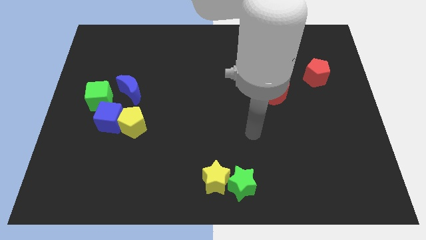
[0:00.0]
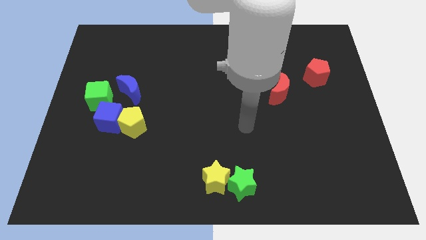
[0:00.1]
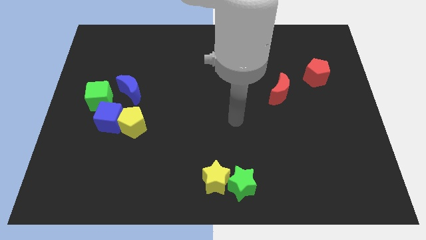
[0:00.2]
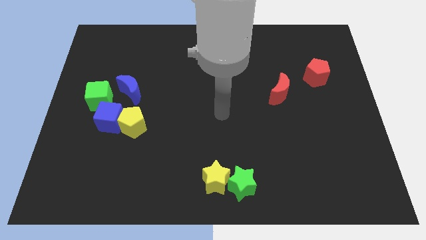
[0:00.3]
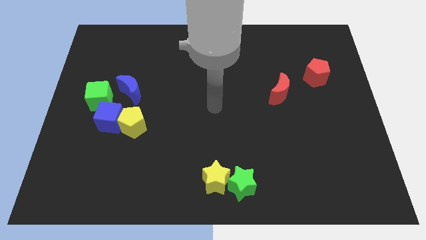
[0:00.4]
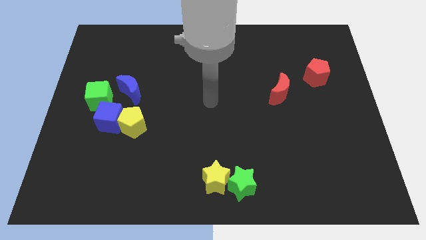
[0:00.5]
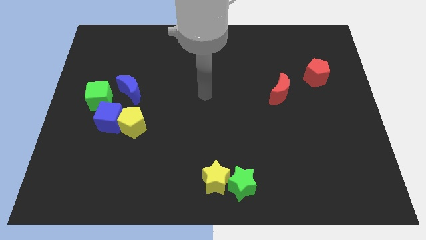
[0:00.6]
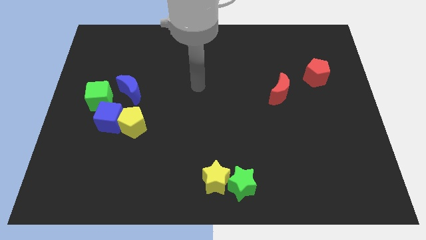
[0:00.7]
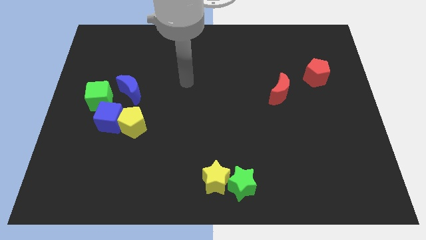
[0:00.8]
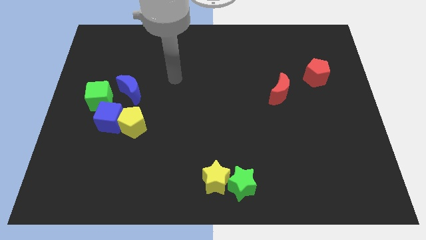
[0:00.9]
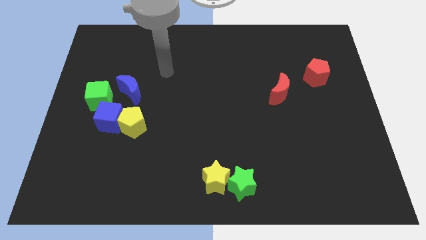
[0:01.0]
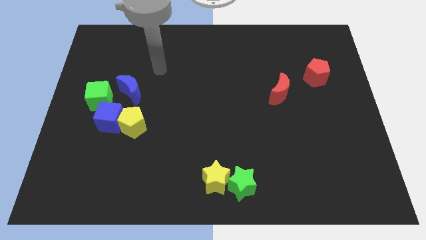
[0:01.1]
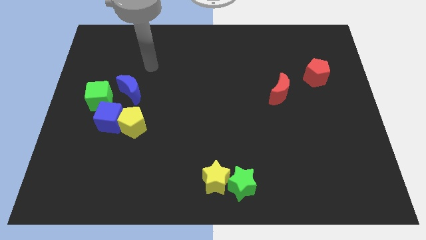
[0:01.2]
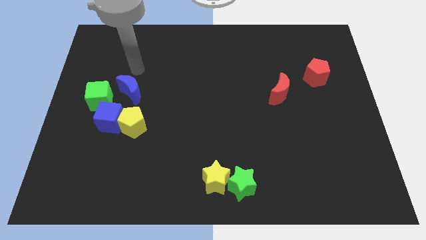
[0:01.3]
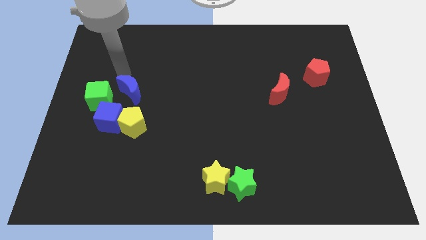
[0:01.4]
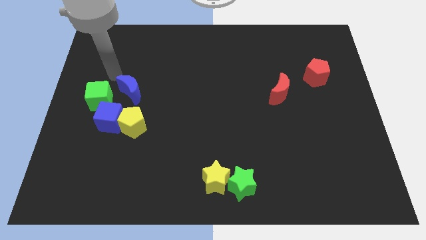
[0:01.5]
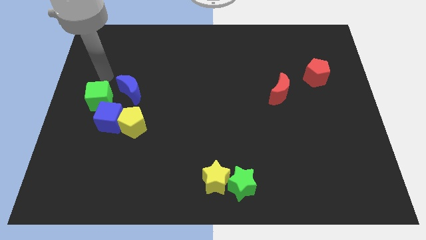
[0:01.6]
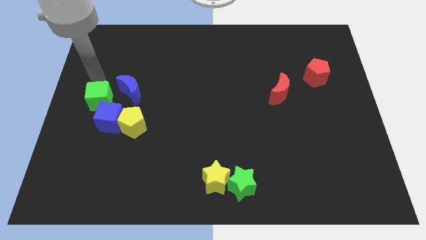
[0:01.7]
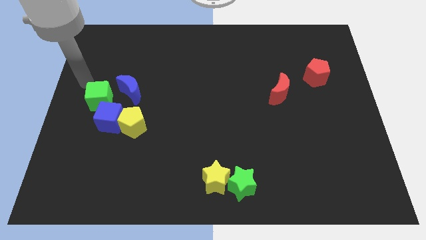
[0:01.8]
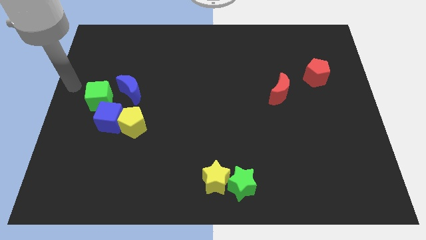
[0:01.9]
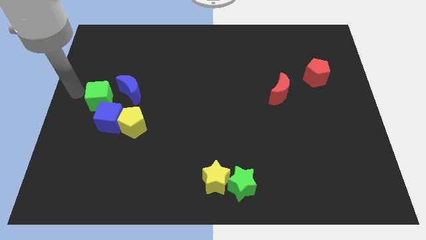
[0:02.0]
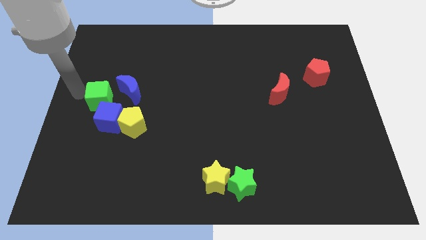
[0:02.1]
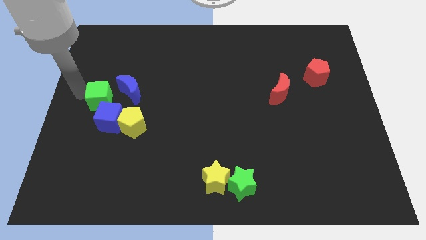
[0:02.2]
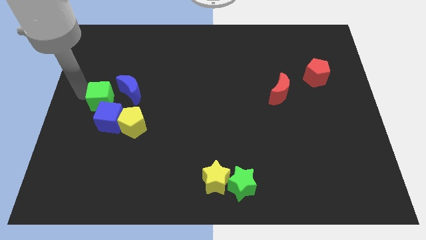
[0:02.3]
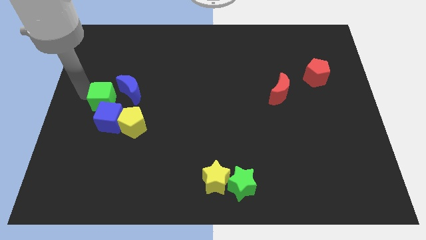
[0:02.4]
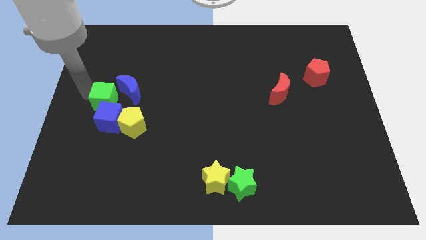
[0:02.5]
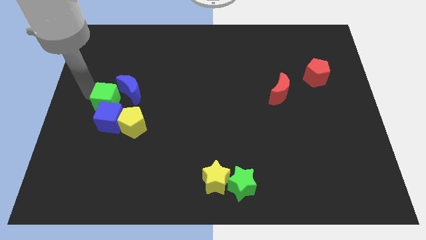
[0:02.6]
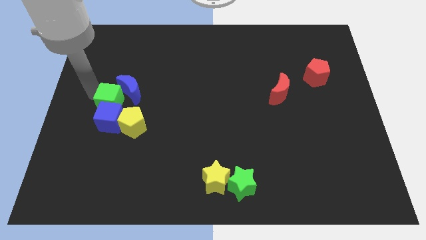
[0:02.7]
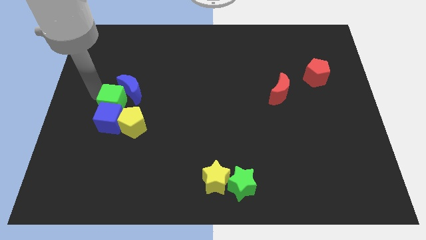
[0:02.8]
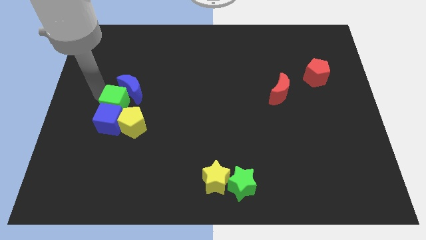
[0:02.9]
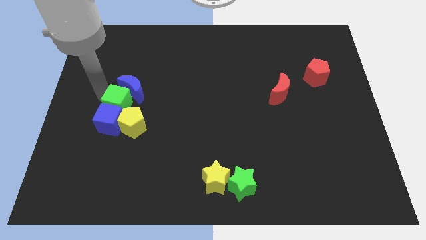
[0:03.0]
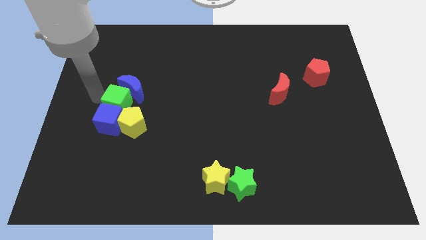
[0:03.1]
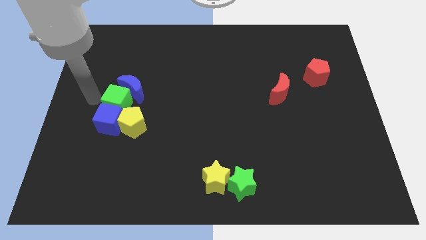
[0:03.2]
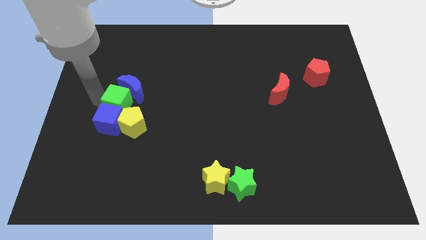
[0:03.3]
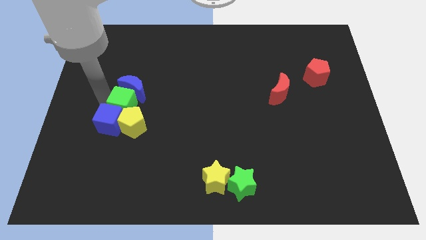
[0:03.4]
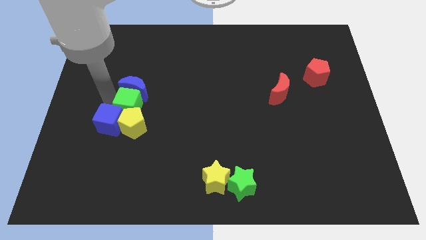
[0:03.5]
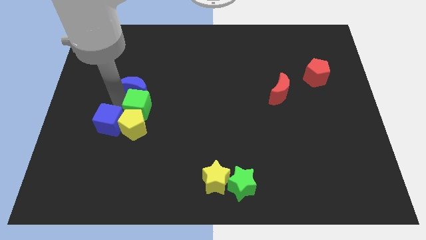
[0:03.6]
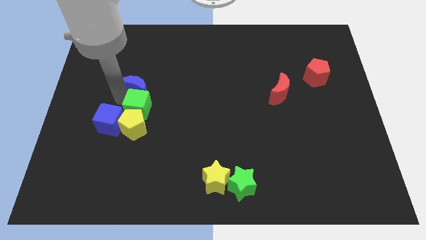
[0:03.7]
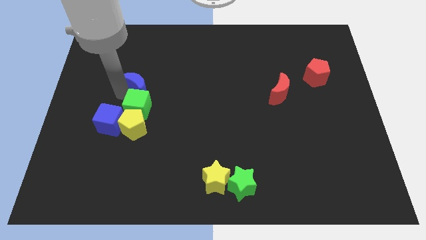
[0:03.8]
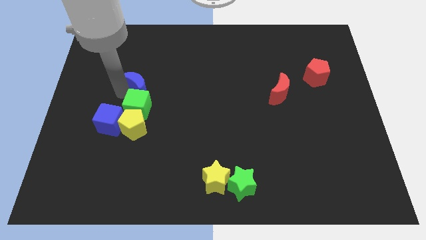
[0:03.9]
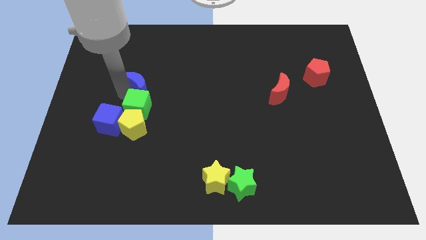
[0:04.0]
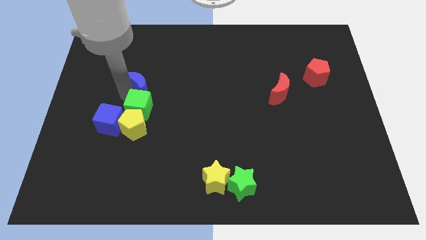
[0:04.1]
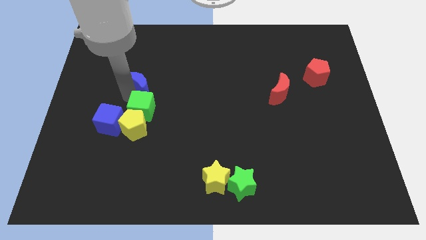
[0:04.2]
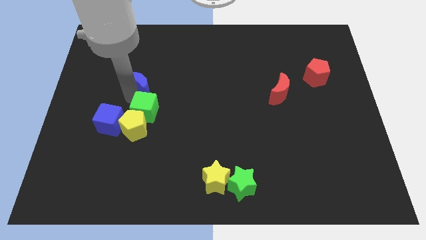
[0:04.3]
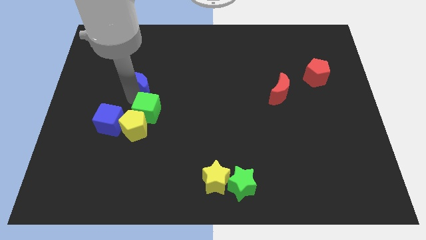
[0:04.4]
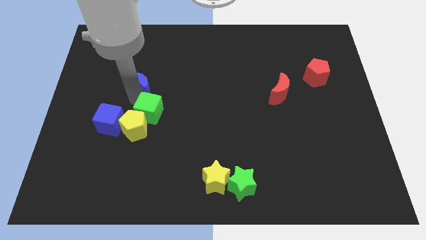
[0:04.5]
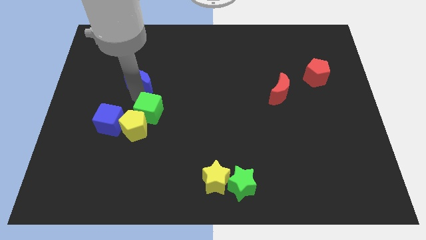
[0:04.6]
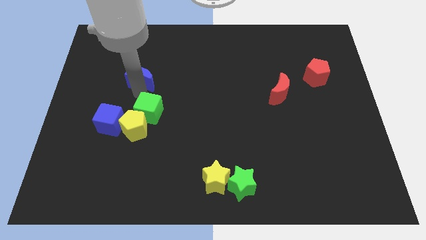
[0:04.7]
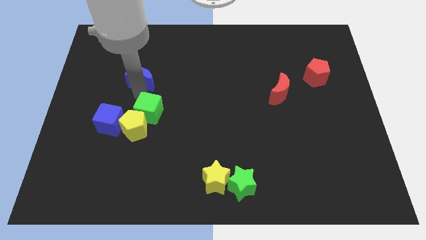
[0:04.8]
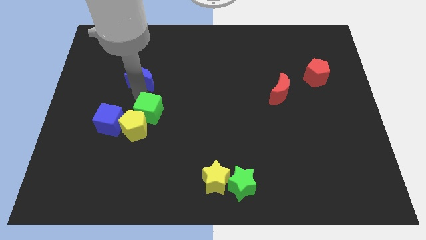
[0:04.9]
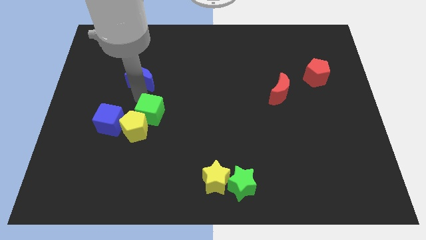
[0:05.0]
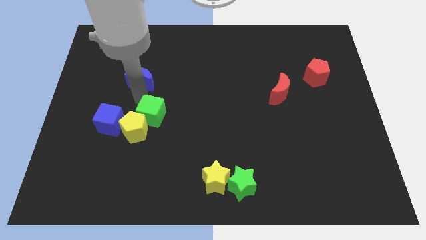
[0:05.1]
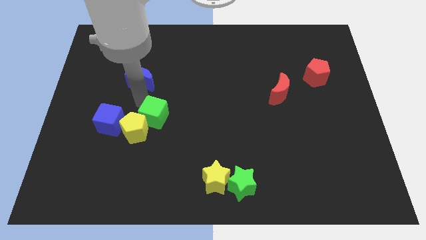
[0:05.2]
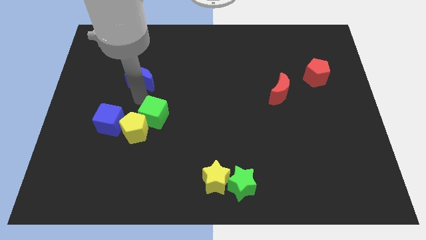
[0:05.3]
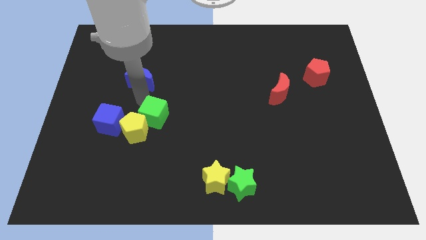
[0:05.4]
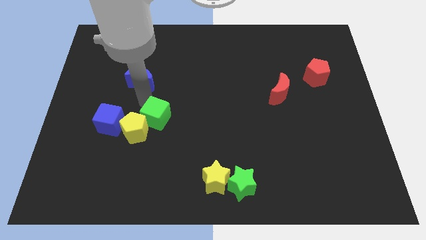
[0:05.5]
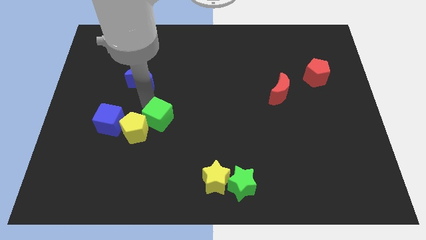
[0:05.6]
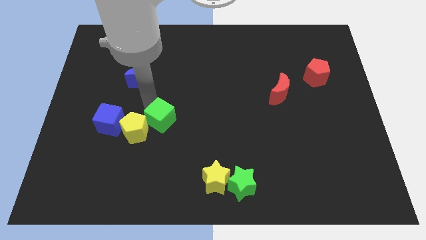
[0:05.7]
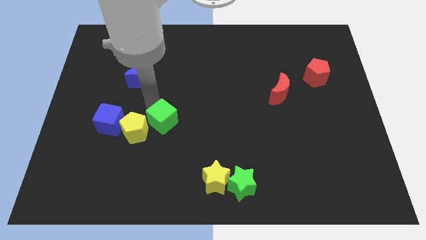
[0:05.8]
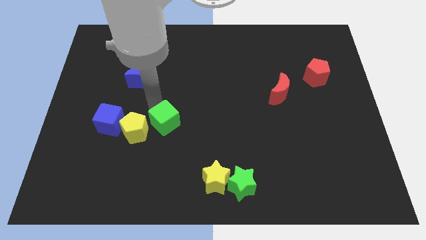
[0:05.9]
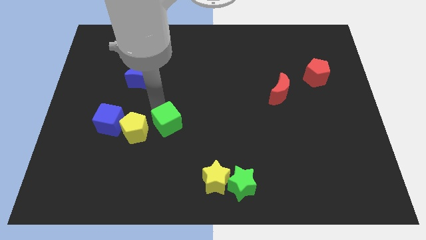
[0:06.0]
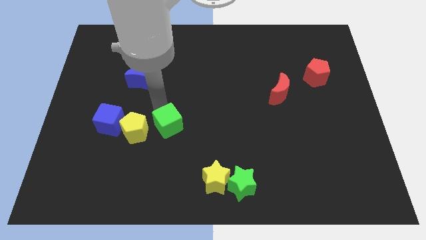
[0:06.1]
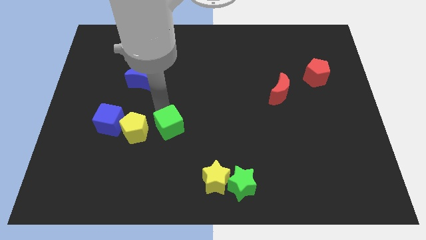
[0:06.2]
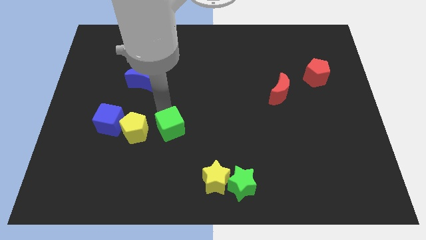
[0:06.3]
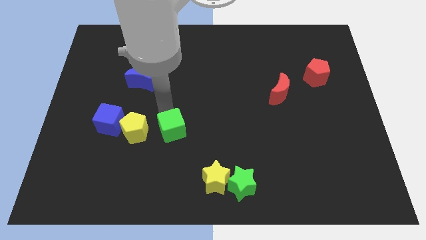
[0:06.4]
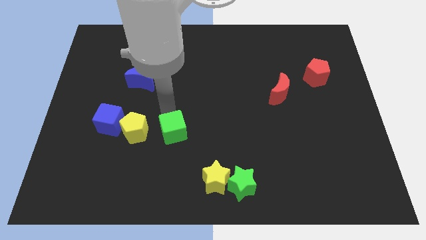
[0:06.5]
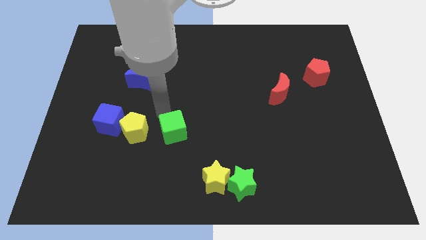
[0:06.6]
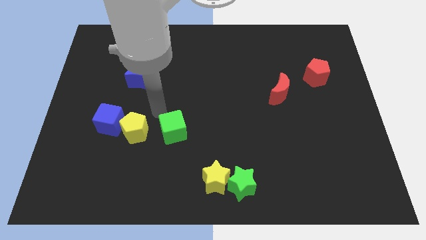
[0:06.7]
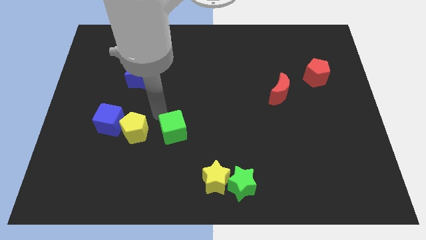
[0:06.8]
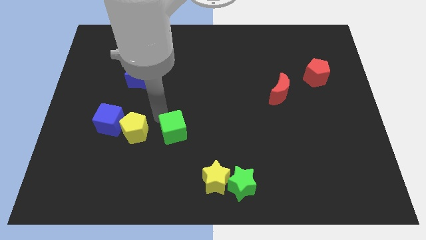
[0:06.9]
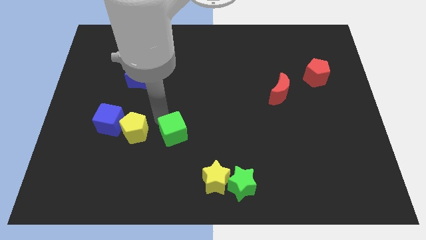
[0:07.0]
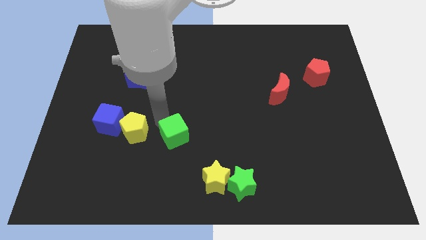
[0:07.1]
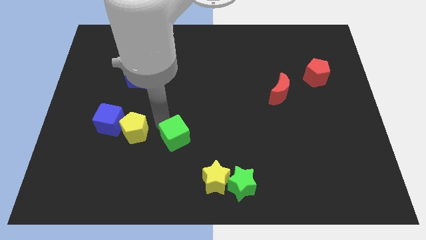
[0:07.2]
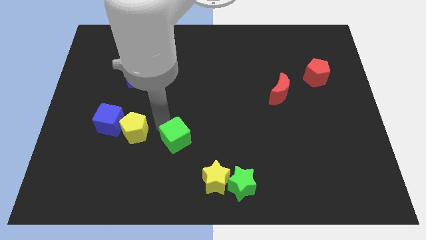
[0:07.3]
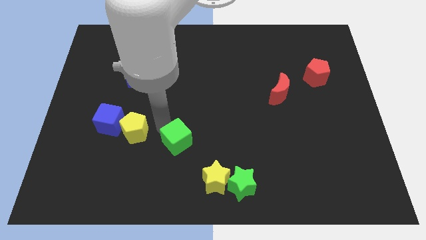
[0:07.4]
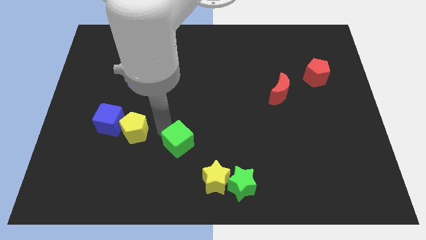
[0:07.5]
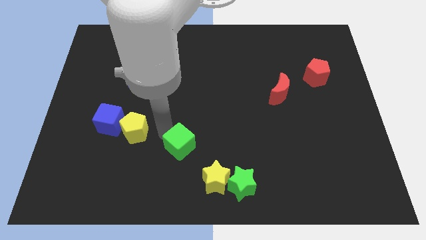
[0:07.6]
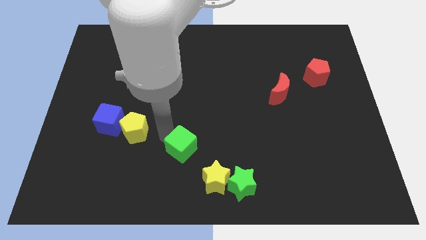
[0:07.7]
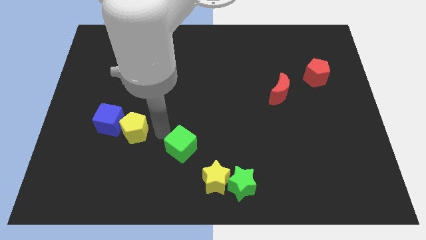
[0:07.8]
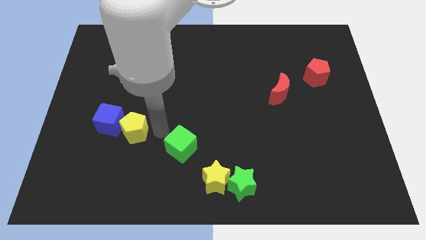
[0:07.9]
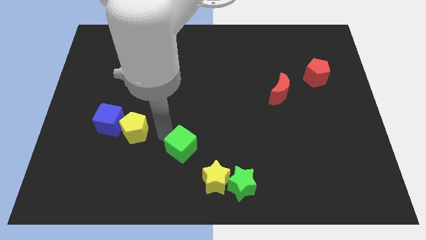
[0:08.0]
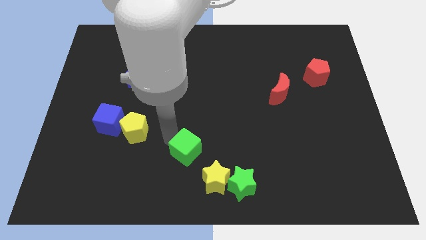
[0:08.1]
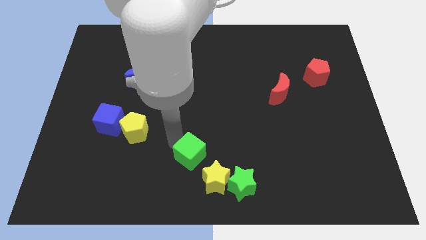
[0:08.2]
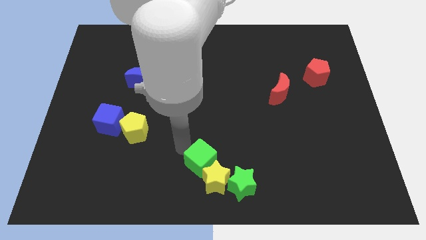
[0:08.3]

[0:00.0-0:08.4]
put the green cube close to the yellow star
